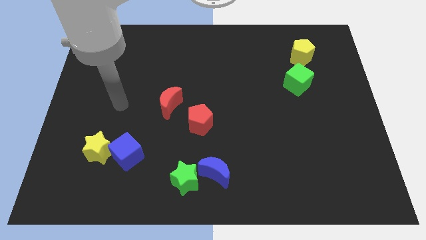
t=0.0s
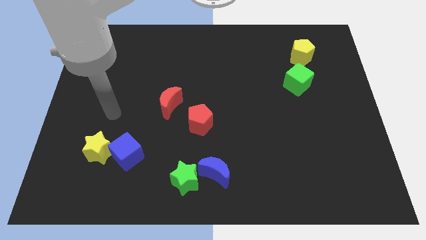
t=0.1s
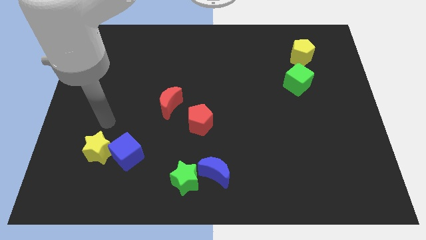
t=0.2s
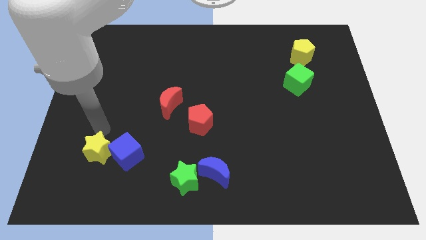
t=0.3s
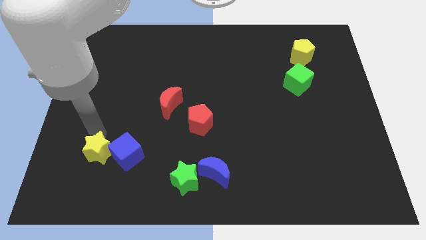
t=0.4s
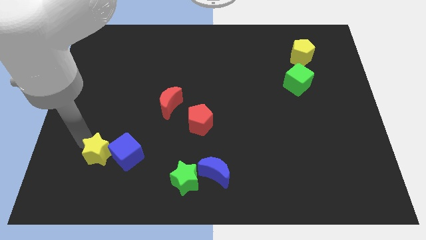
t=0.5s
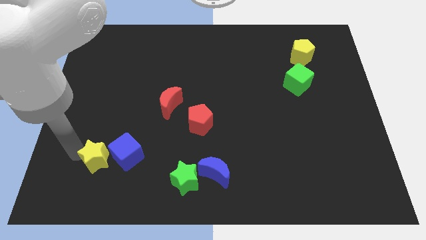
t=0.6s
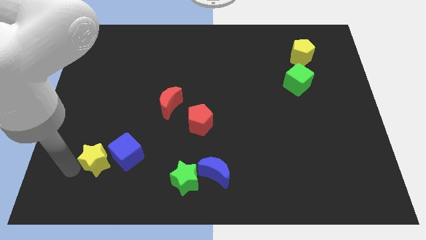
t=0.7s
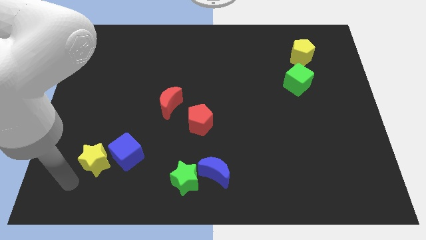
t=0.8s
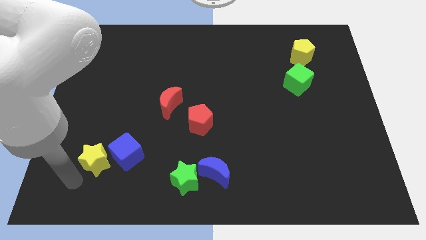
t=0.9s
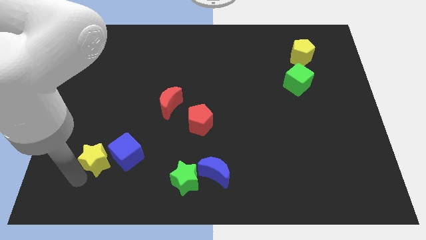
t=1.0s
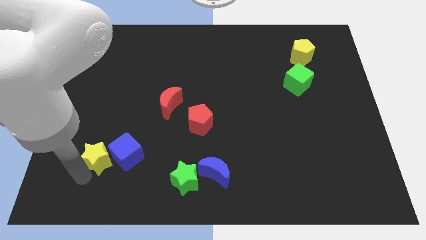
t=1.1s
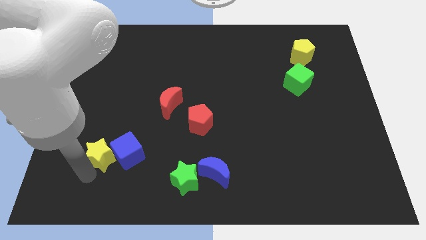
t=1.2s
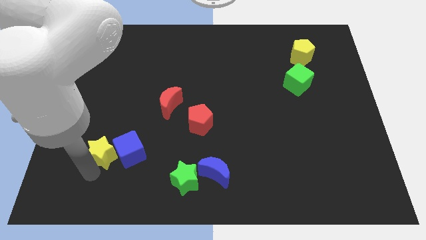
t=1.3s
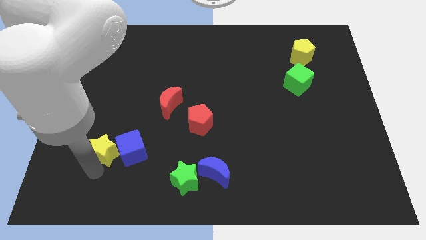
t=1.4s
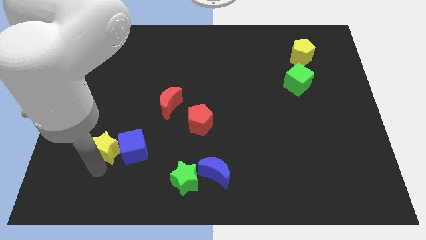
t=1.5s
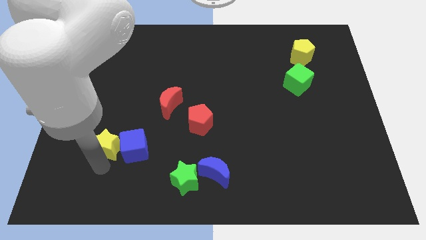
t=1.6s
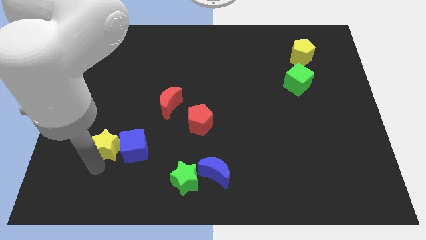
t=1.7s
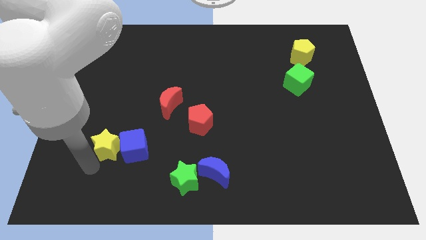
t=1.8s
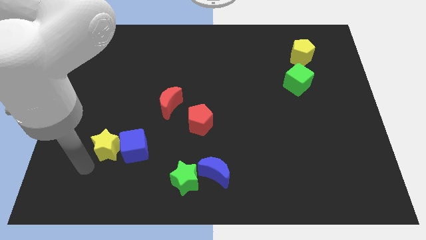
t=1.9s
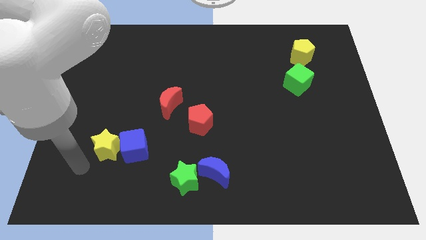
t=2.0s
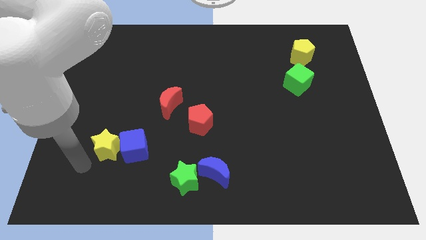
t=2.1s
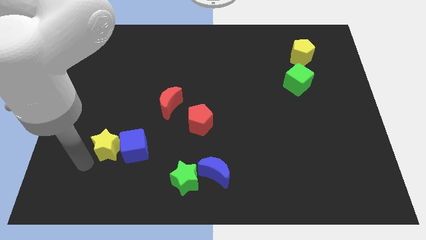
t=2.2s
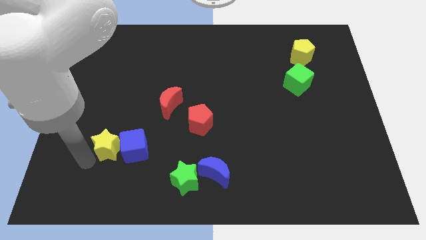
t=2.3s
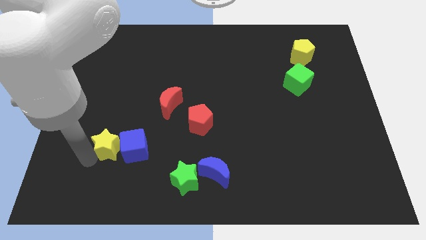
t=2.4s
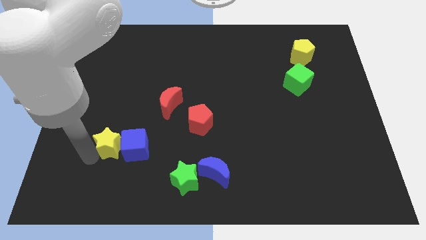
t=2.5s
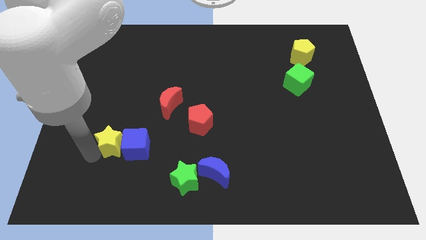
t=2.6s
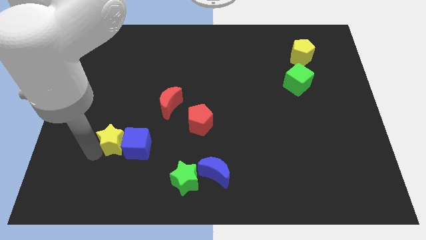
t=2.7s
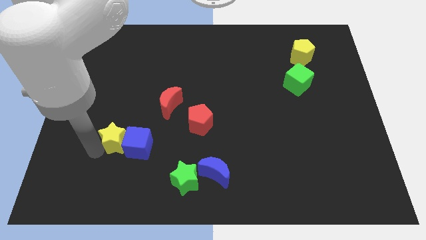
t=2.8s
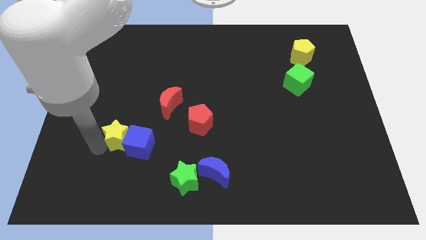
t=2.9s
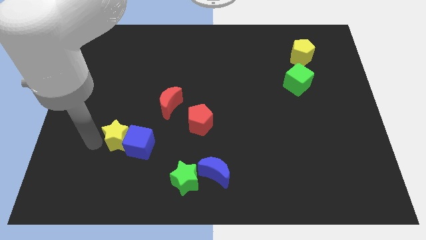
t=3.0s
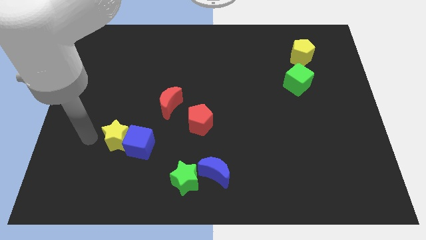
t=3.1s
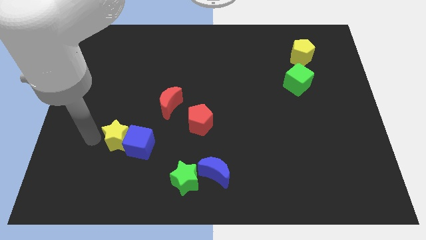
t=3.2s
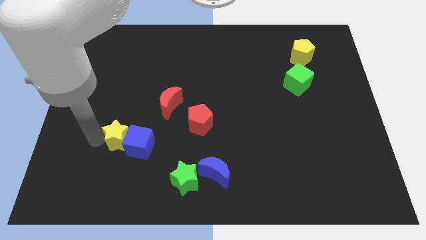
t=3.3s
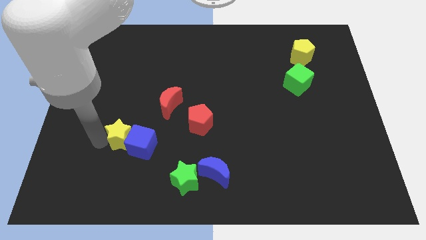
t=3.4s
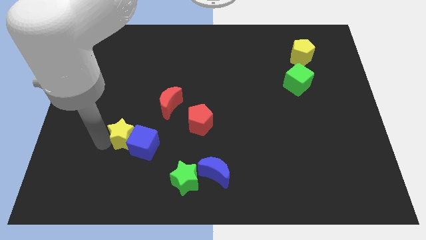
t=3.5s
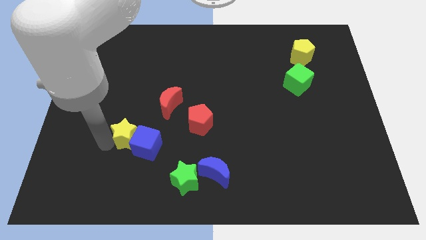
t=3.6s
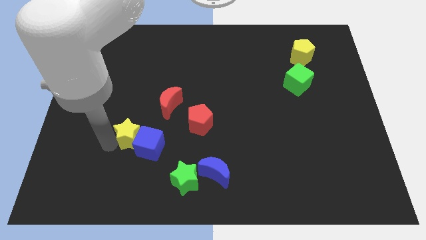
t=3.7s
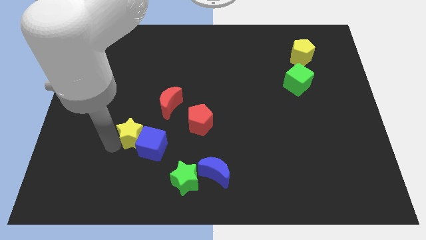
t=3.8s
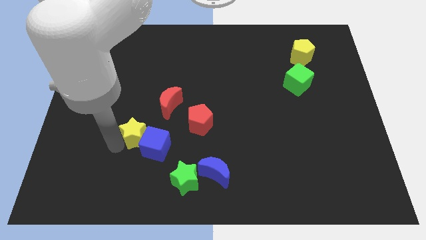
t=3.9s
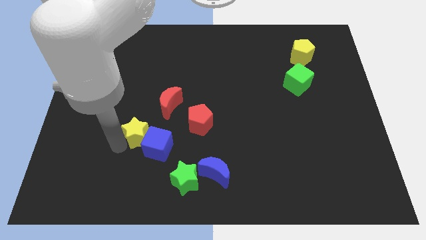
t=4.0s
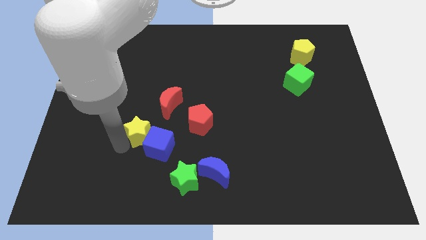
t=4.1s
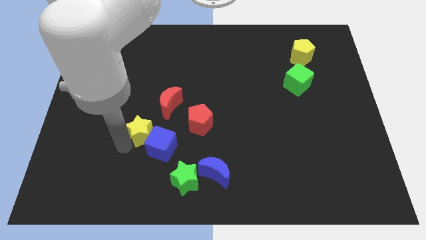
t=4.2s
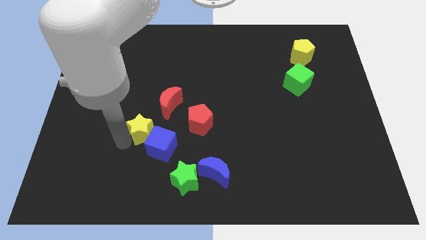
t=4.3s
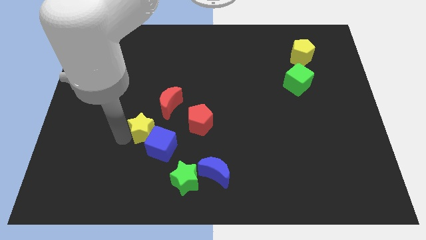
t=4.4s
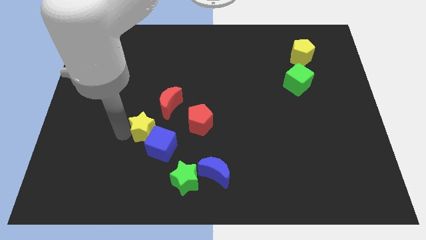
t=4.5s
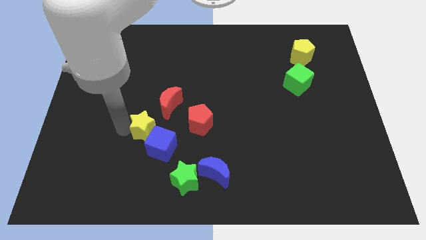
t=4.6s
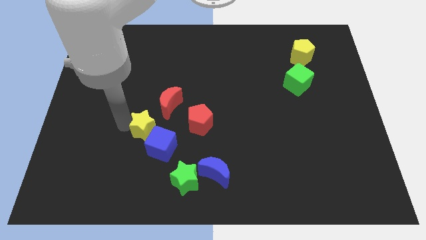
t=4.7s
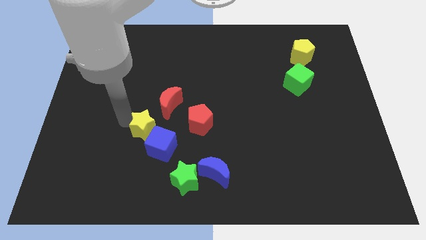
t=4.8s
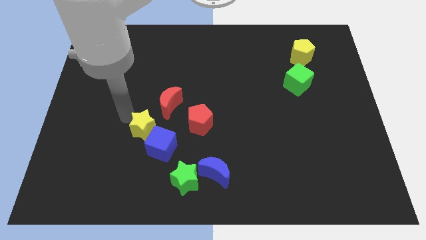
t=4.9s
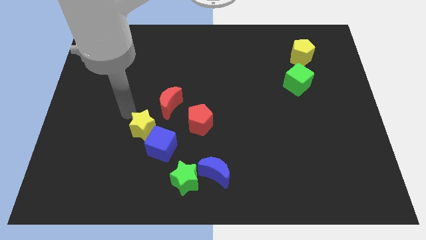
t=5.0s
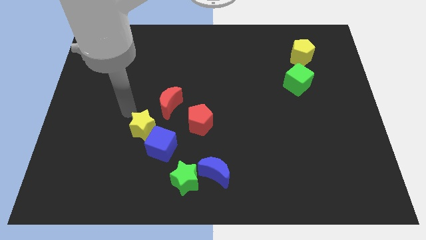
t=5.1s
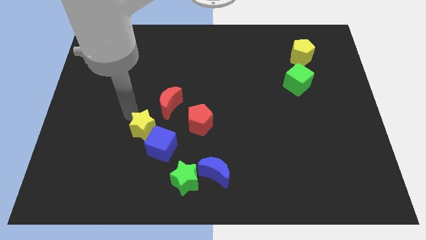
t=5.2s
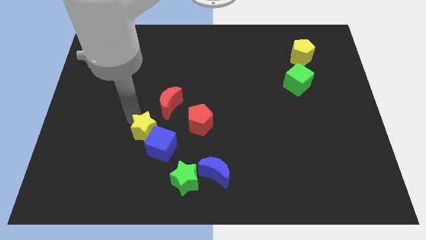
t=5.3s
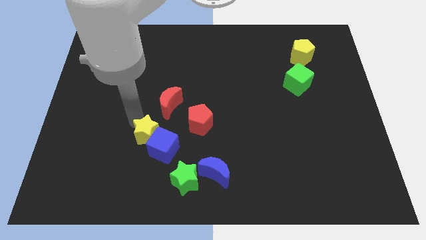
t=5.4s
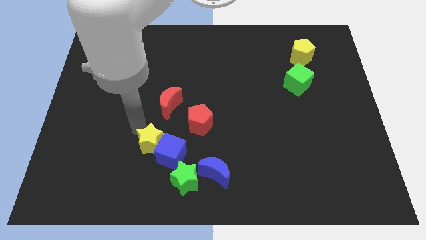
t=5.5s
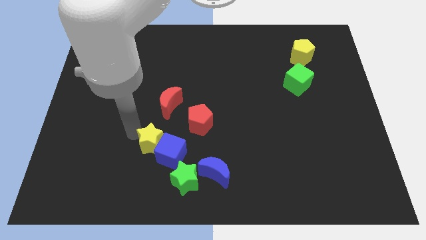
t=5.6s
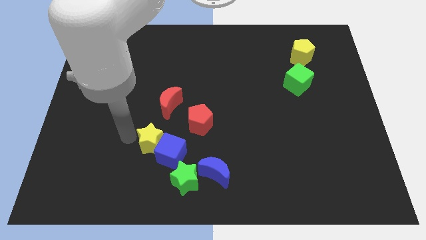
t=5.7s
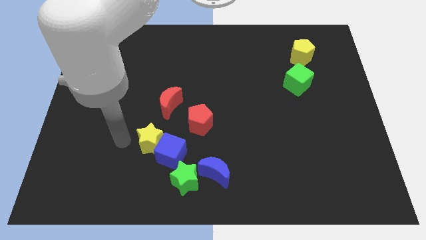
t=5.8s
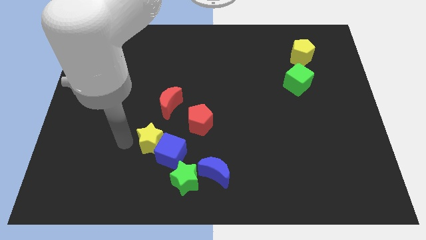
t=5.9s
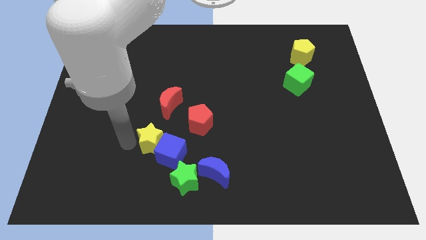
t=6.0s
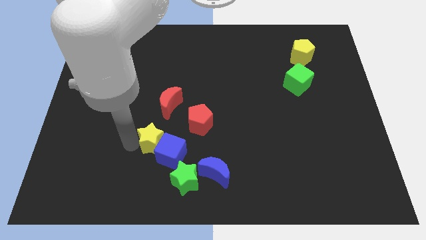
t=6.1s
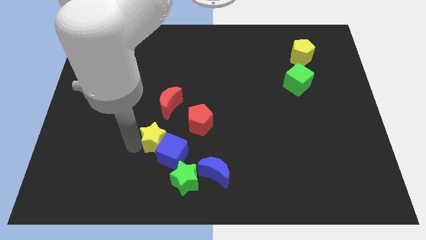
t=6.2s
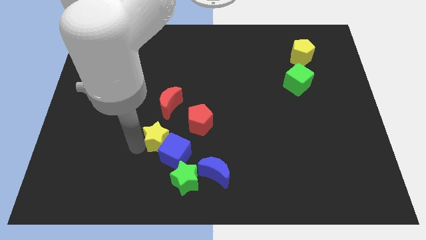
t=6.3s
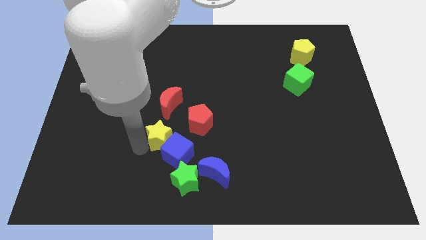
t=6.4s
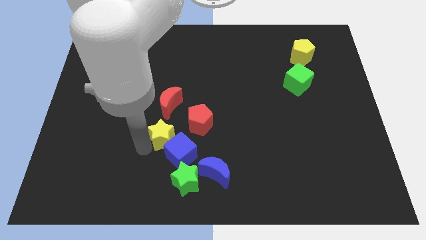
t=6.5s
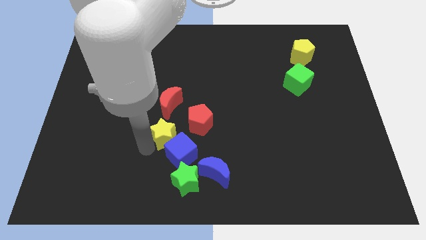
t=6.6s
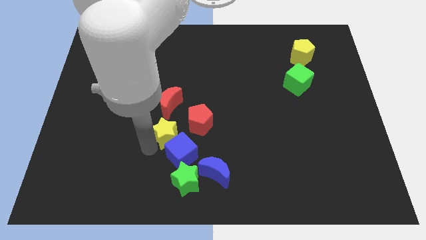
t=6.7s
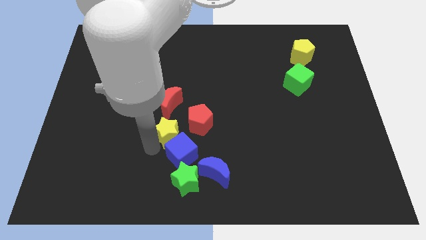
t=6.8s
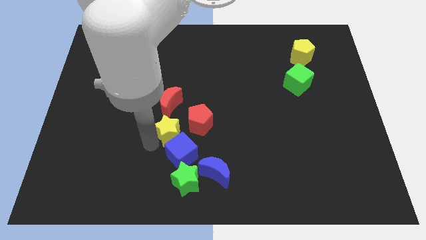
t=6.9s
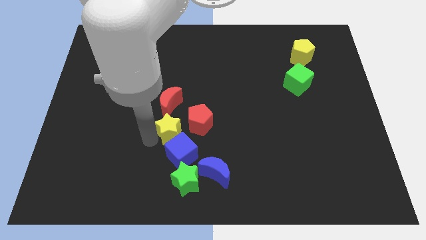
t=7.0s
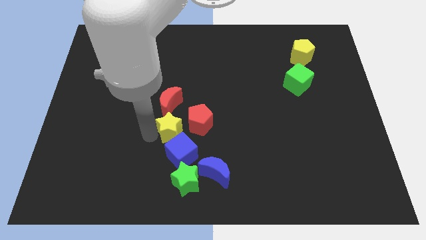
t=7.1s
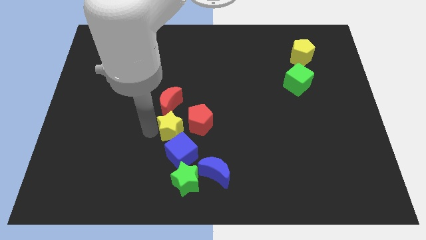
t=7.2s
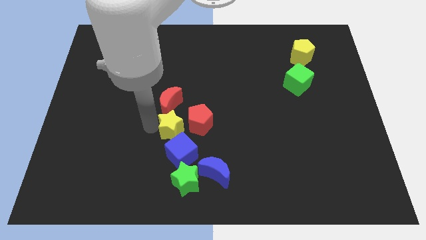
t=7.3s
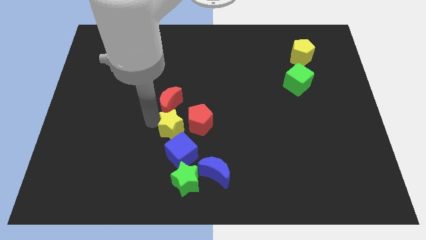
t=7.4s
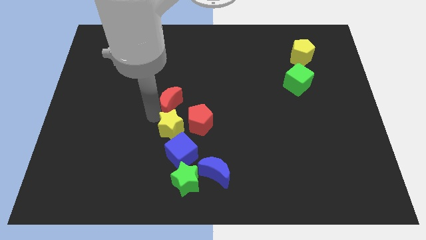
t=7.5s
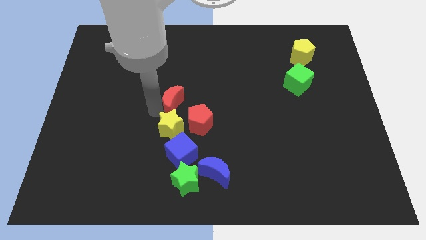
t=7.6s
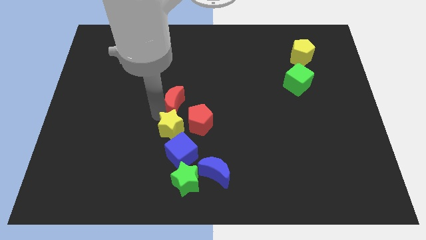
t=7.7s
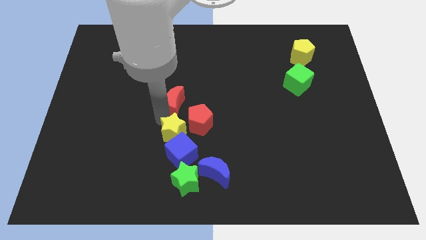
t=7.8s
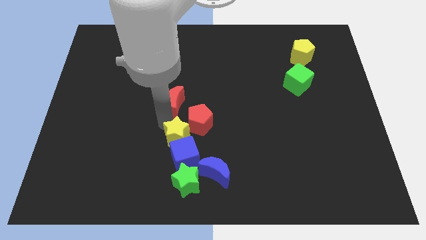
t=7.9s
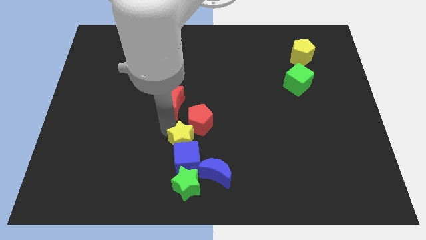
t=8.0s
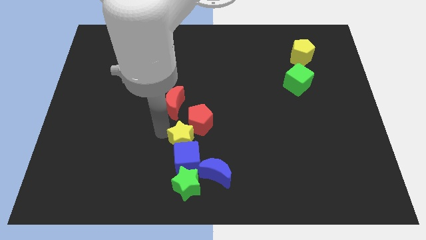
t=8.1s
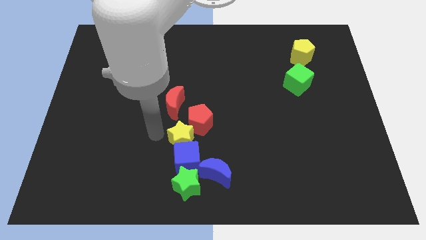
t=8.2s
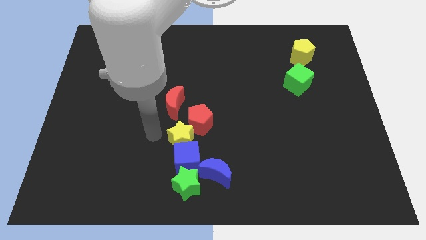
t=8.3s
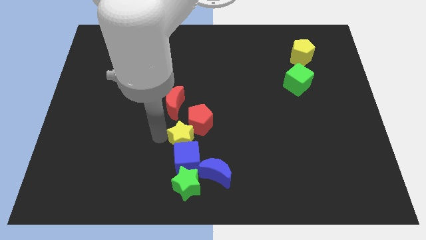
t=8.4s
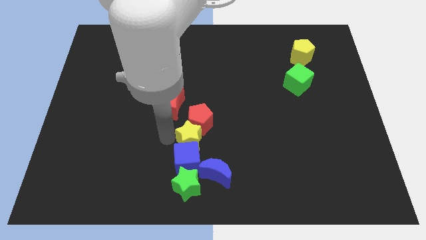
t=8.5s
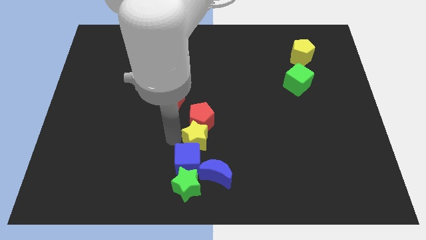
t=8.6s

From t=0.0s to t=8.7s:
slide the yellow star to the right
